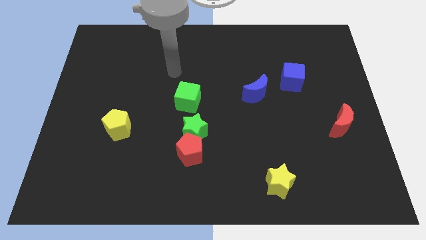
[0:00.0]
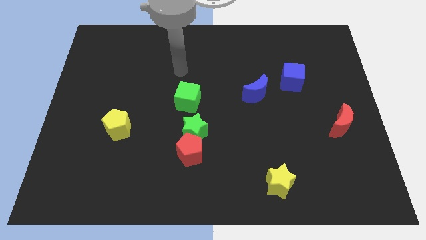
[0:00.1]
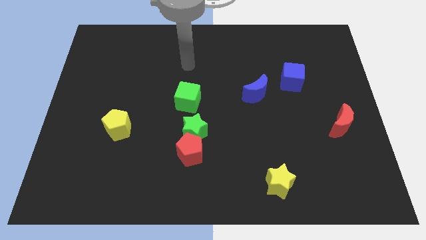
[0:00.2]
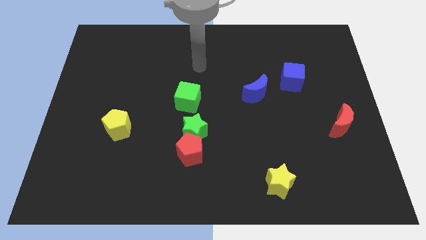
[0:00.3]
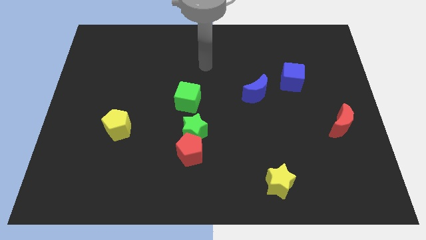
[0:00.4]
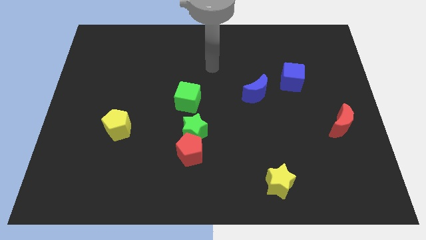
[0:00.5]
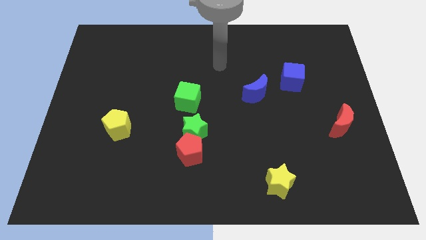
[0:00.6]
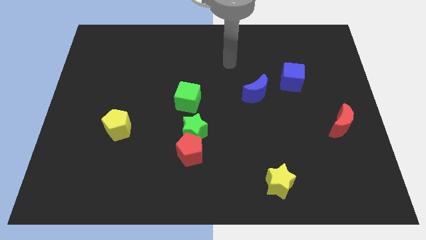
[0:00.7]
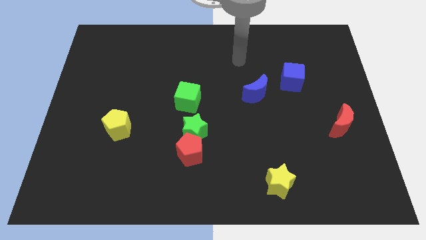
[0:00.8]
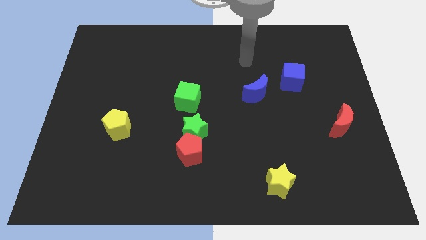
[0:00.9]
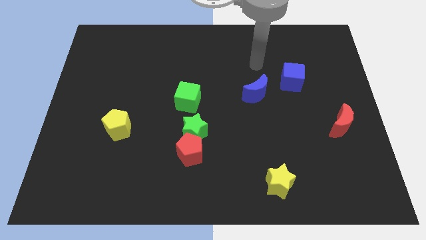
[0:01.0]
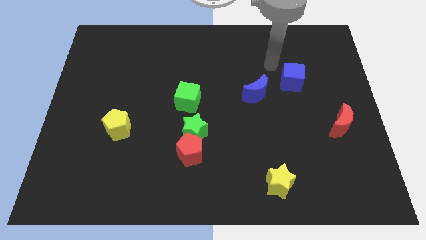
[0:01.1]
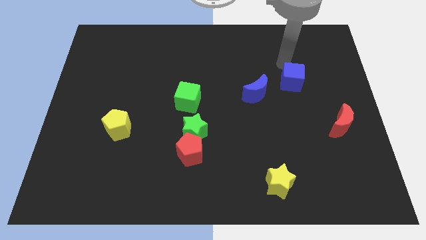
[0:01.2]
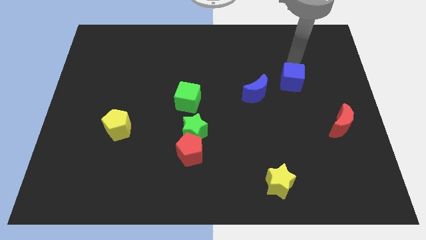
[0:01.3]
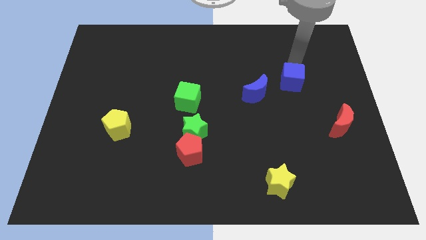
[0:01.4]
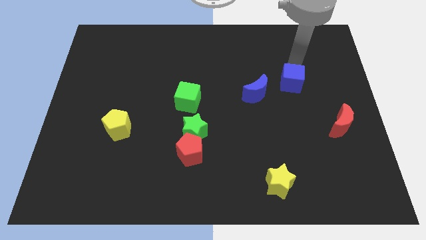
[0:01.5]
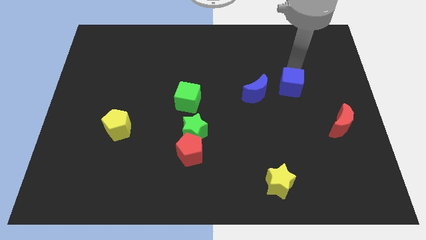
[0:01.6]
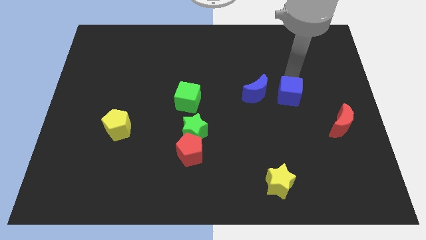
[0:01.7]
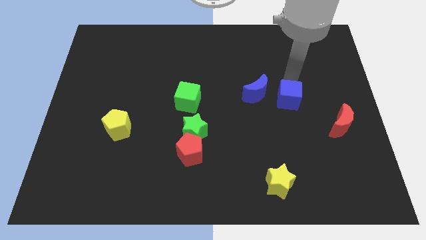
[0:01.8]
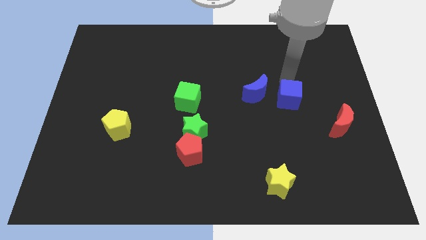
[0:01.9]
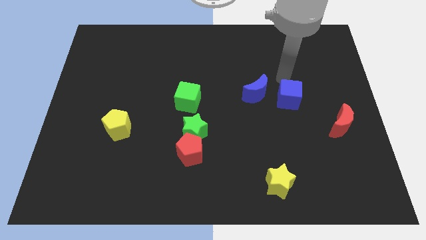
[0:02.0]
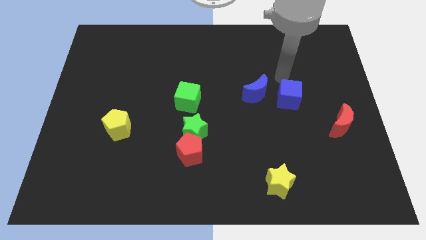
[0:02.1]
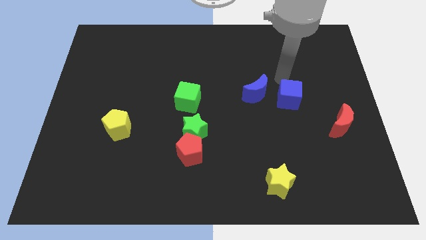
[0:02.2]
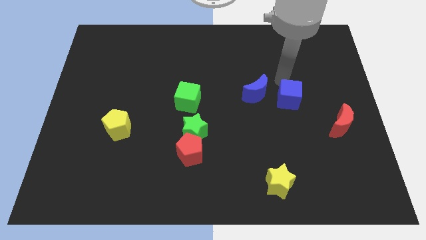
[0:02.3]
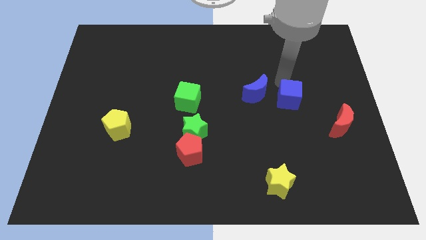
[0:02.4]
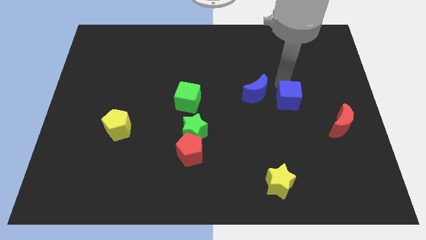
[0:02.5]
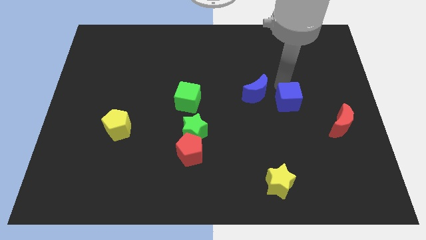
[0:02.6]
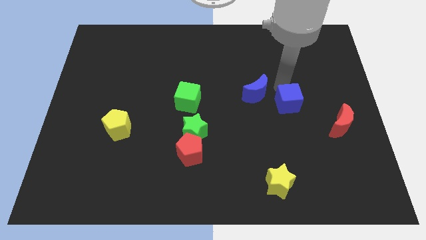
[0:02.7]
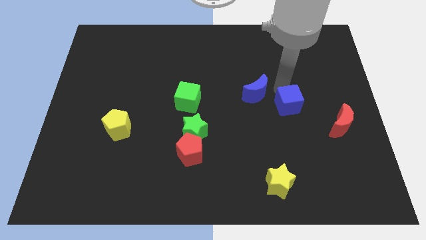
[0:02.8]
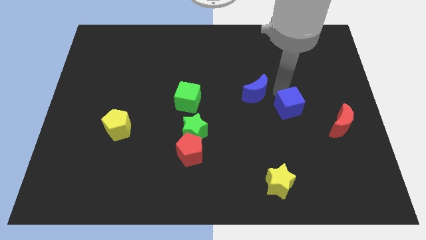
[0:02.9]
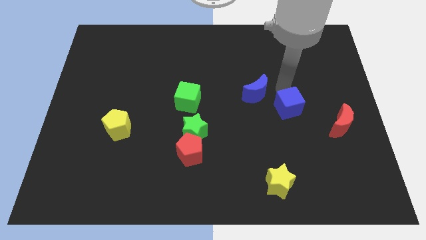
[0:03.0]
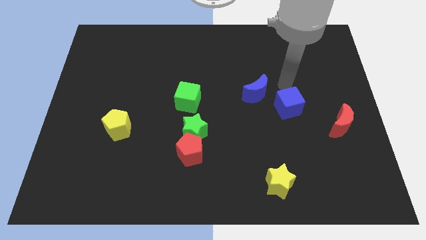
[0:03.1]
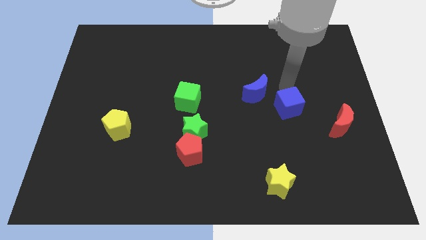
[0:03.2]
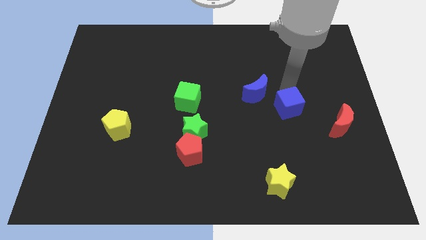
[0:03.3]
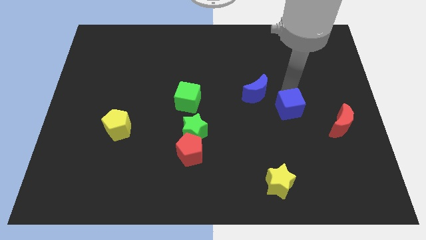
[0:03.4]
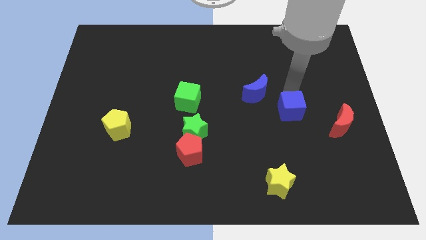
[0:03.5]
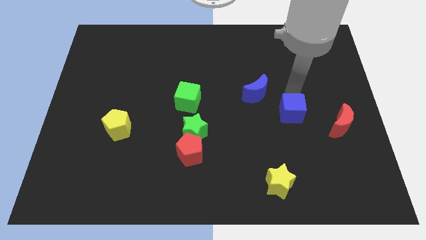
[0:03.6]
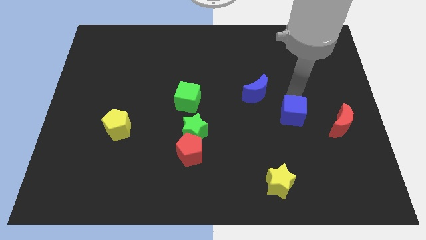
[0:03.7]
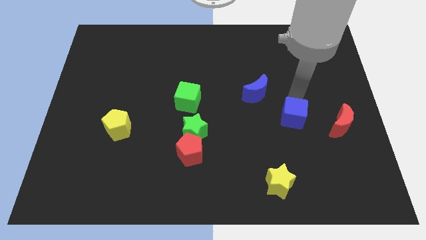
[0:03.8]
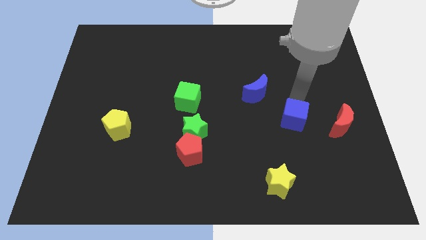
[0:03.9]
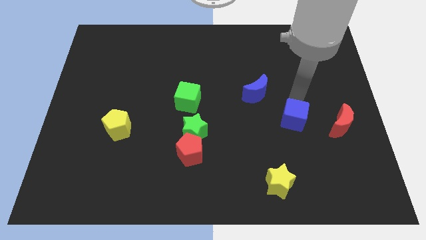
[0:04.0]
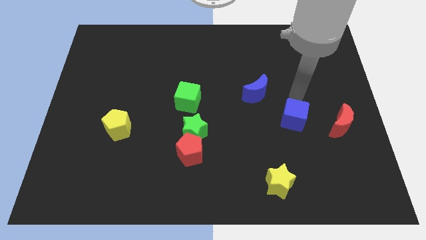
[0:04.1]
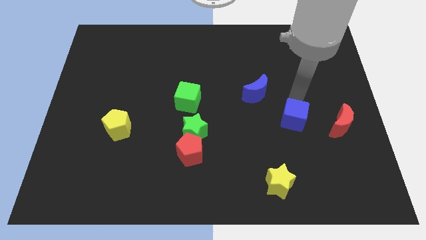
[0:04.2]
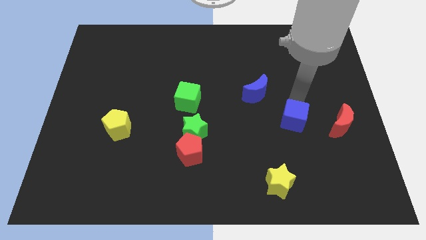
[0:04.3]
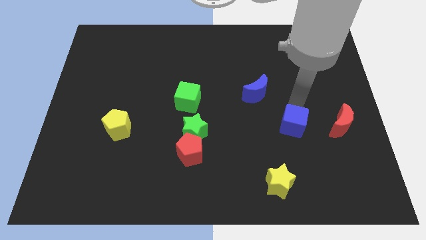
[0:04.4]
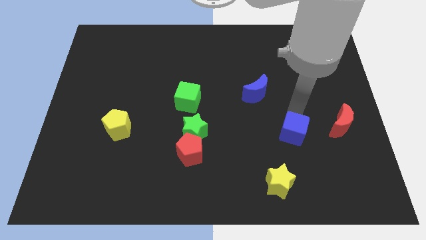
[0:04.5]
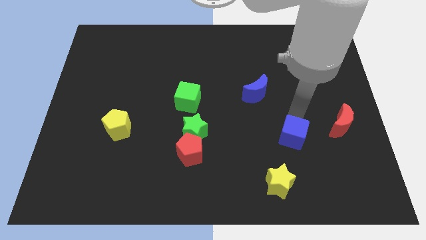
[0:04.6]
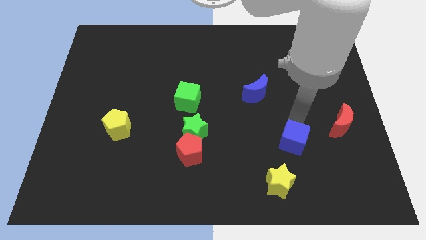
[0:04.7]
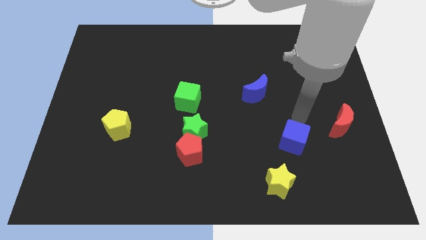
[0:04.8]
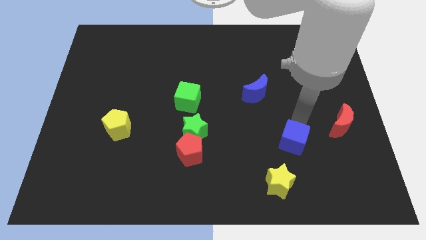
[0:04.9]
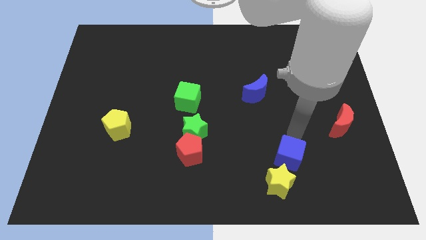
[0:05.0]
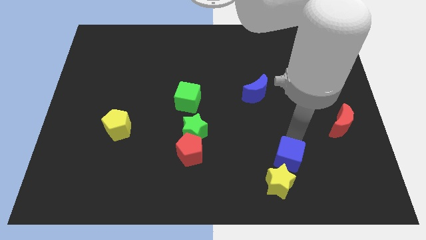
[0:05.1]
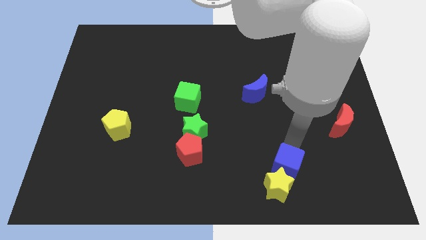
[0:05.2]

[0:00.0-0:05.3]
put the blue cube close to the yellow star

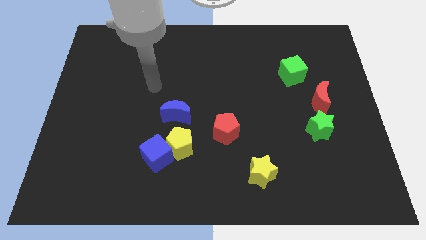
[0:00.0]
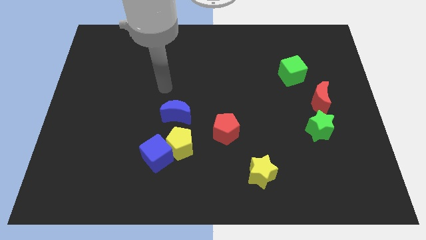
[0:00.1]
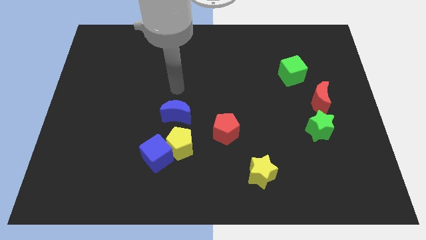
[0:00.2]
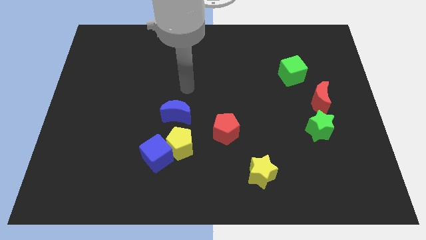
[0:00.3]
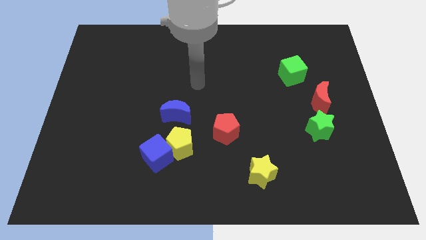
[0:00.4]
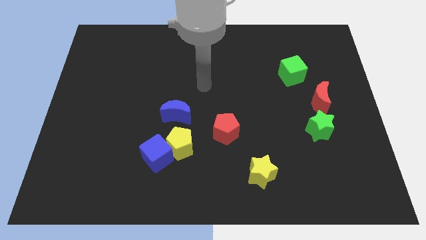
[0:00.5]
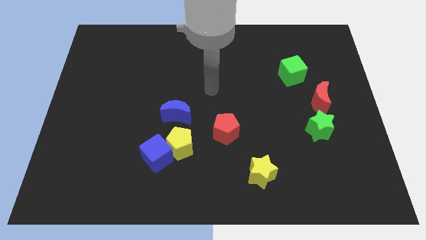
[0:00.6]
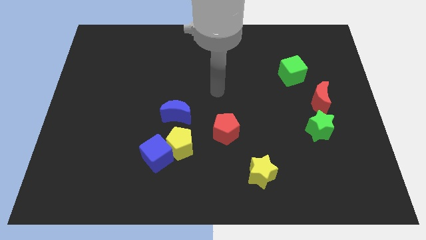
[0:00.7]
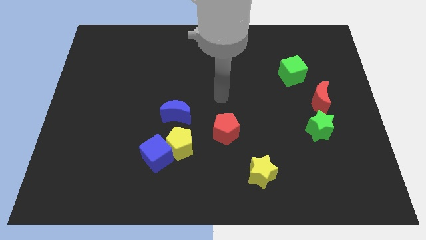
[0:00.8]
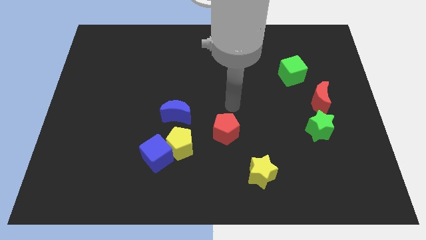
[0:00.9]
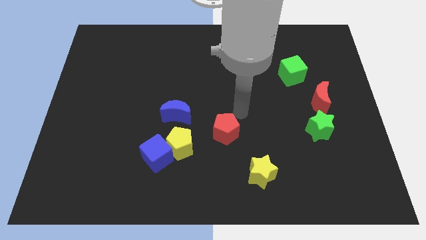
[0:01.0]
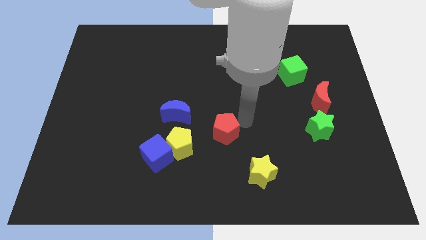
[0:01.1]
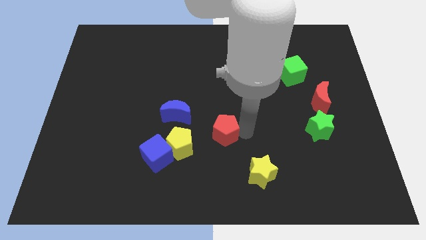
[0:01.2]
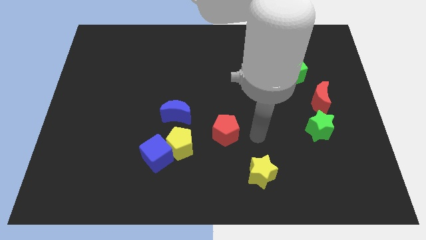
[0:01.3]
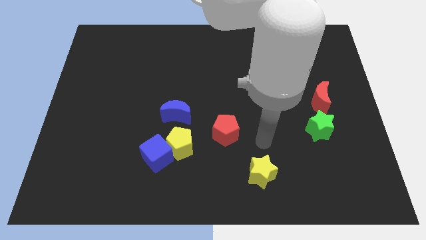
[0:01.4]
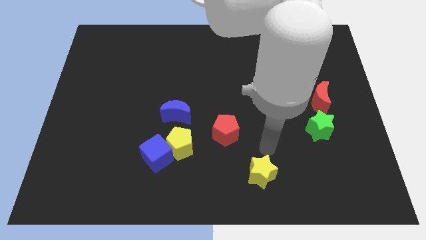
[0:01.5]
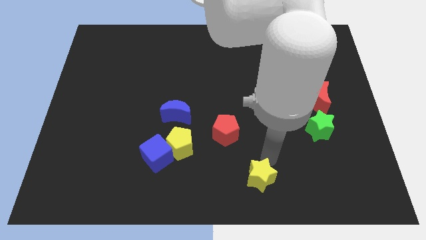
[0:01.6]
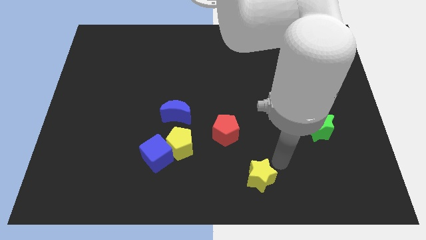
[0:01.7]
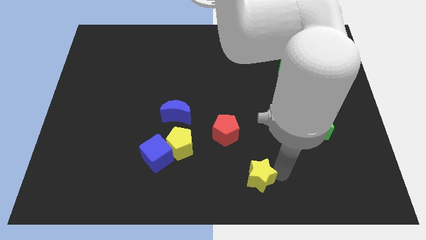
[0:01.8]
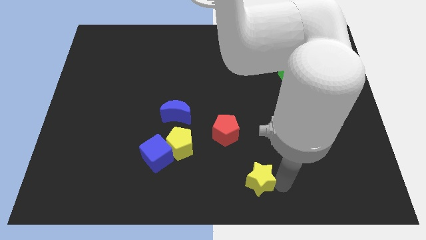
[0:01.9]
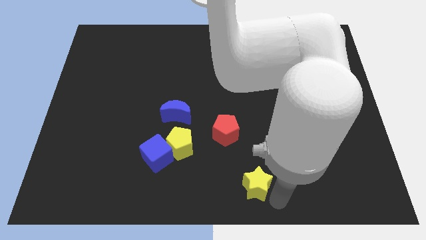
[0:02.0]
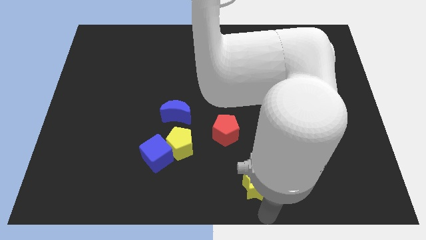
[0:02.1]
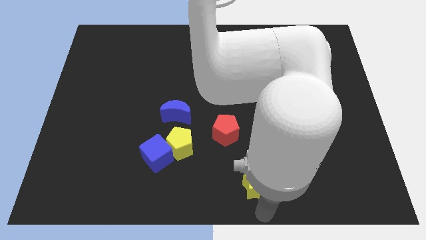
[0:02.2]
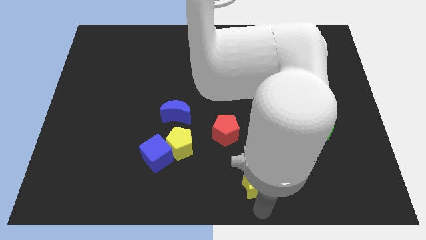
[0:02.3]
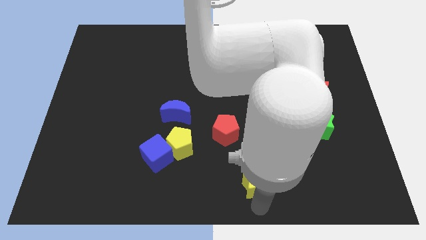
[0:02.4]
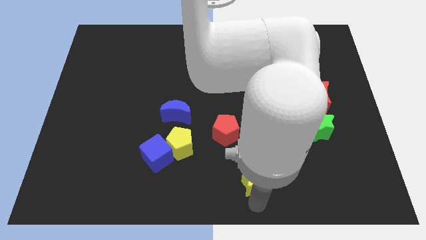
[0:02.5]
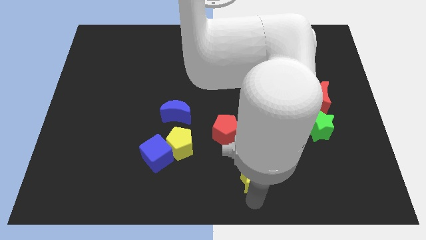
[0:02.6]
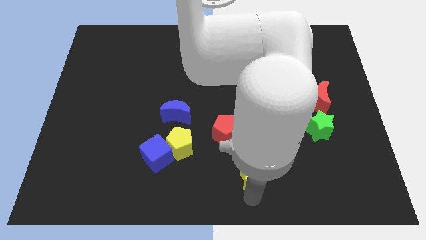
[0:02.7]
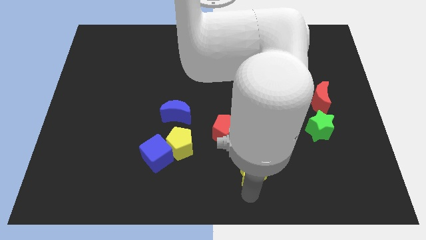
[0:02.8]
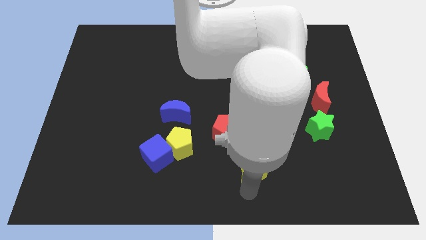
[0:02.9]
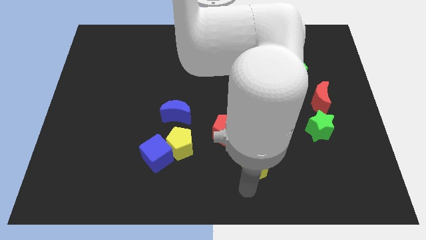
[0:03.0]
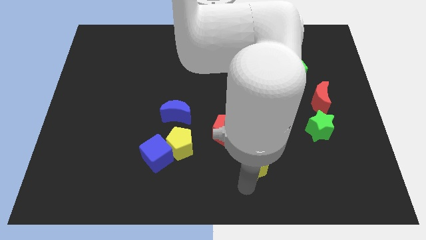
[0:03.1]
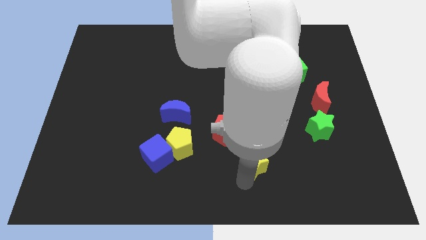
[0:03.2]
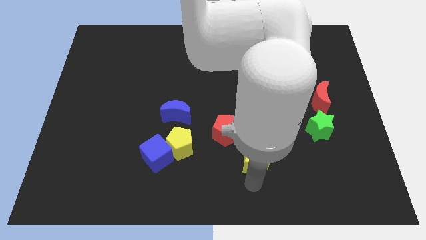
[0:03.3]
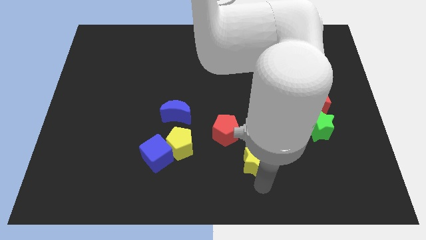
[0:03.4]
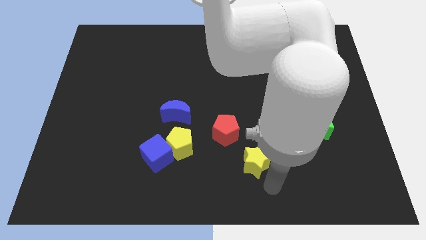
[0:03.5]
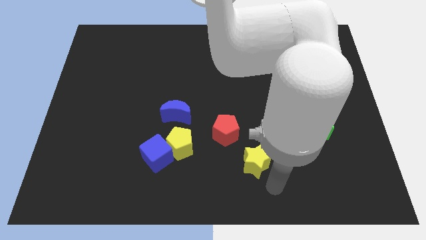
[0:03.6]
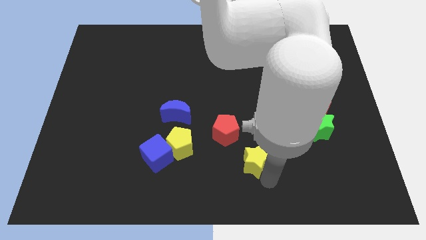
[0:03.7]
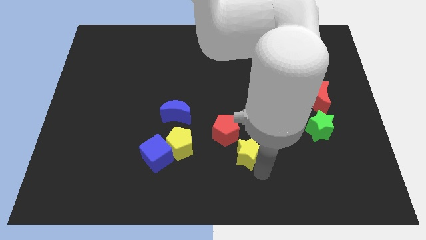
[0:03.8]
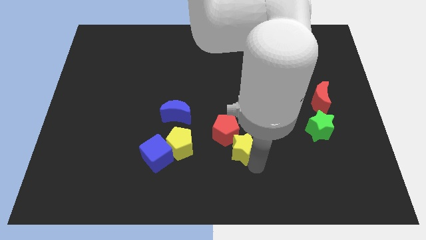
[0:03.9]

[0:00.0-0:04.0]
move the yellow star next to the red pentagon
